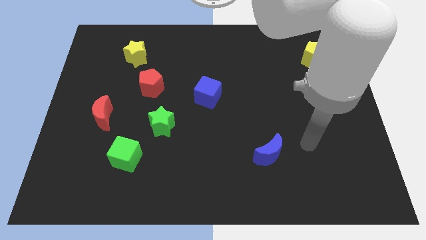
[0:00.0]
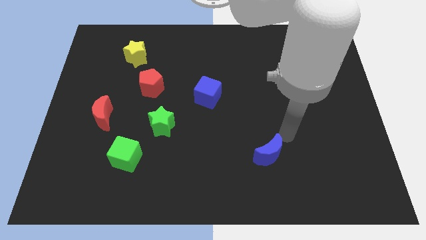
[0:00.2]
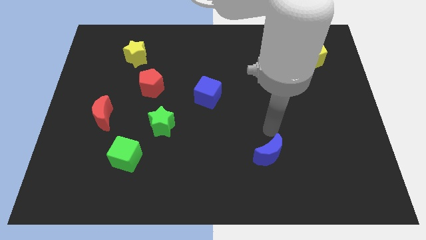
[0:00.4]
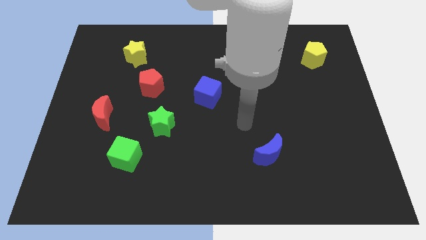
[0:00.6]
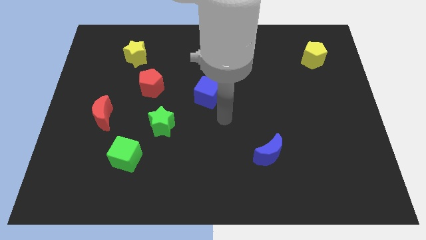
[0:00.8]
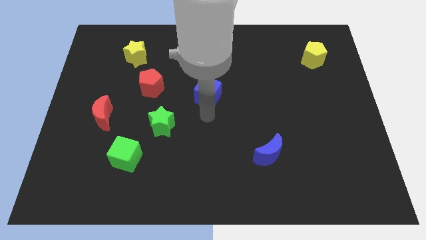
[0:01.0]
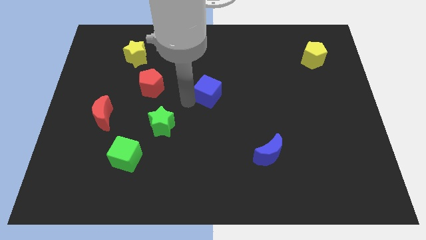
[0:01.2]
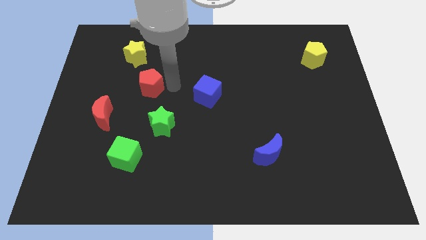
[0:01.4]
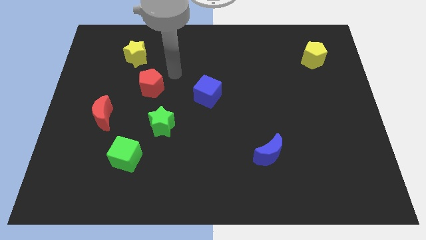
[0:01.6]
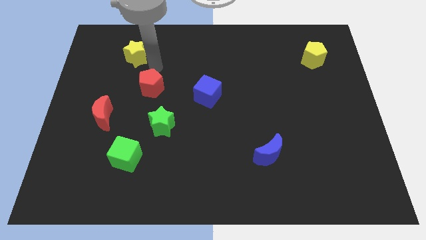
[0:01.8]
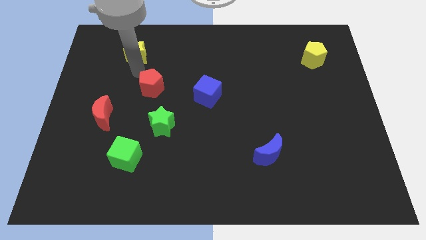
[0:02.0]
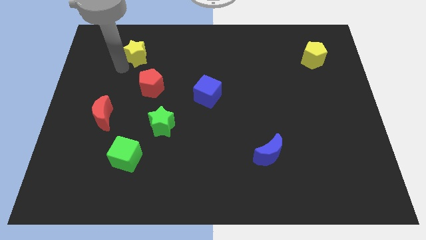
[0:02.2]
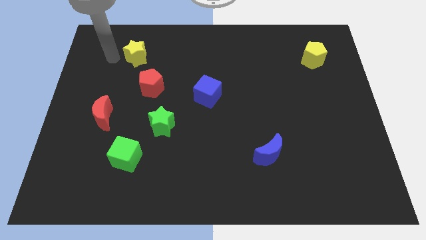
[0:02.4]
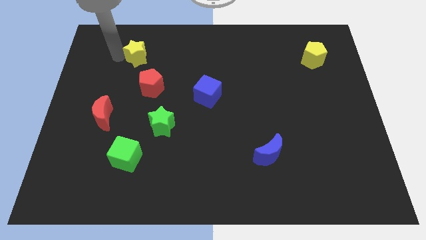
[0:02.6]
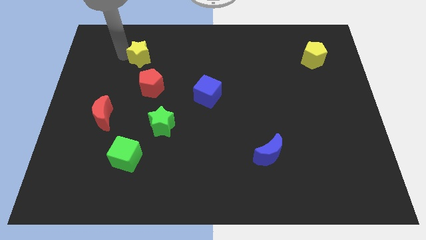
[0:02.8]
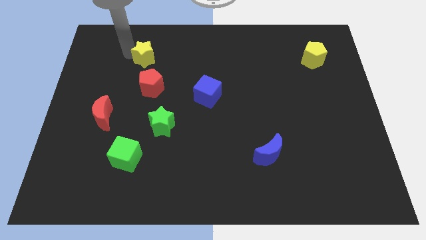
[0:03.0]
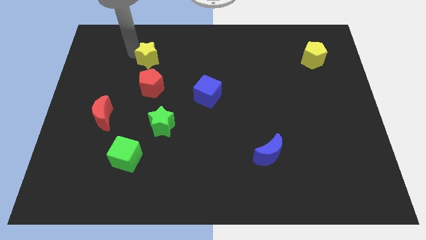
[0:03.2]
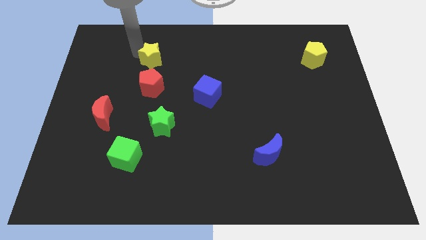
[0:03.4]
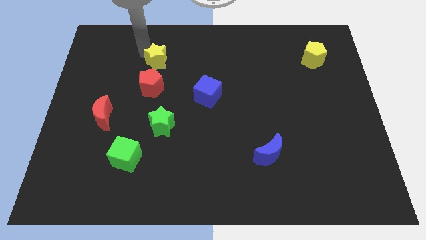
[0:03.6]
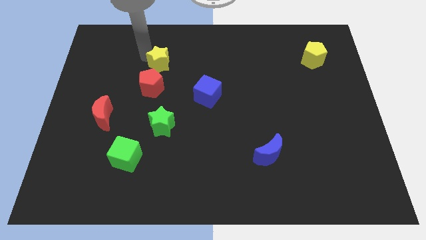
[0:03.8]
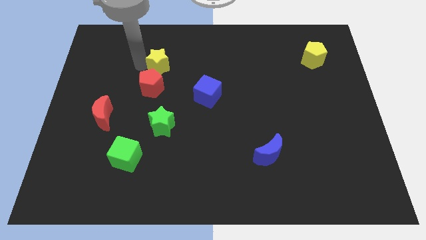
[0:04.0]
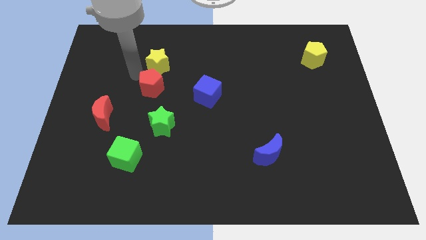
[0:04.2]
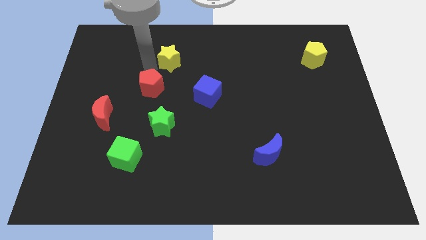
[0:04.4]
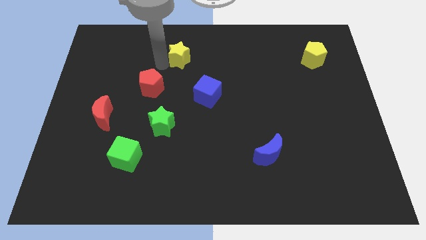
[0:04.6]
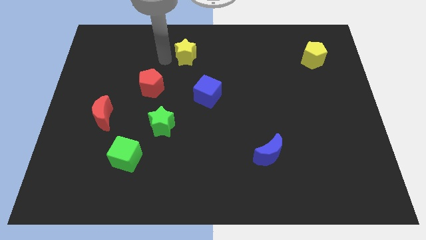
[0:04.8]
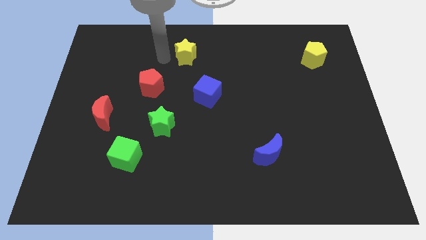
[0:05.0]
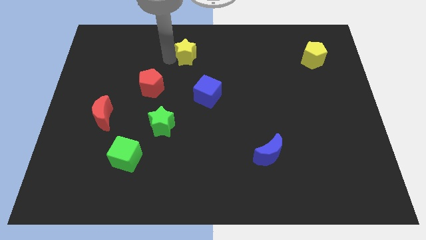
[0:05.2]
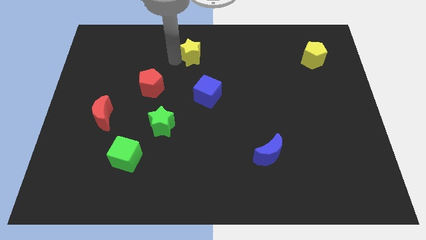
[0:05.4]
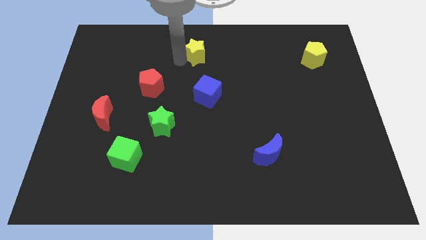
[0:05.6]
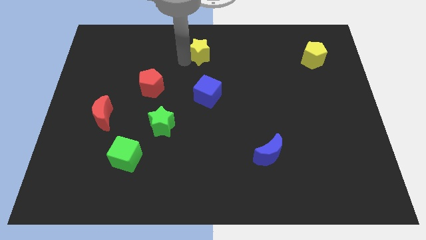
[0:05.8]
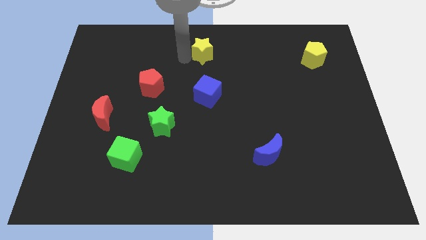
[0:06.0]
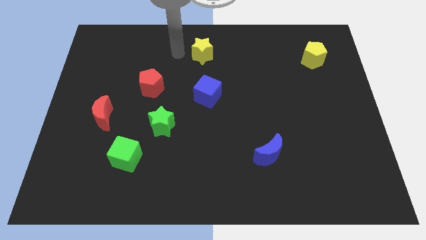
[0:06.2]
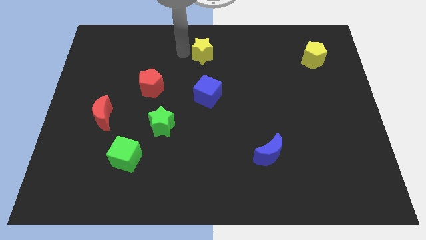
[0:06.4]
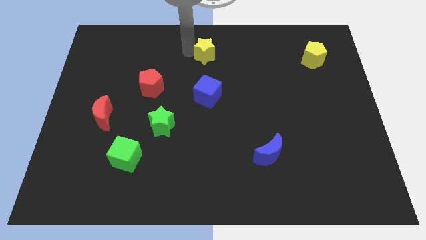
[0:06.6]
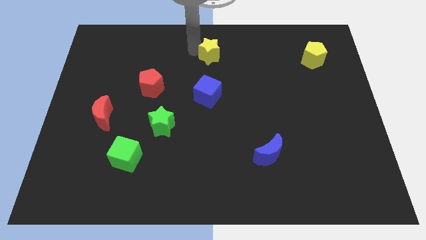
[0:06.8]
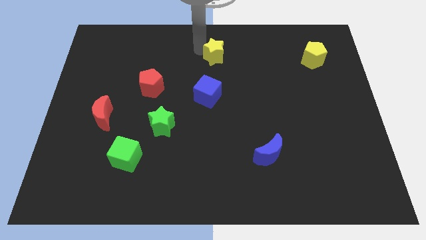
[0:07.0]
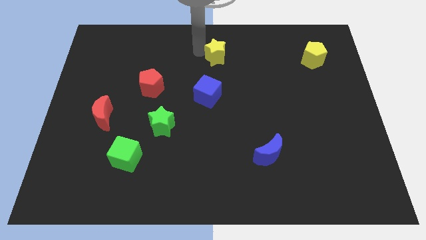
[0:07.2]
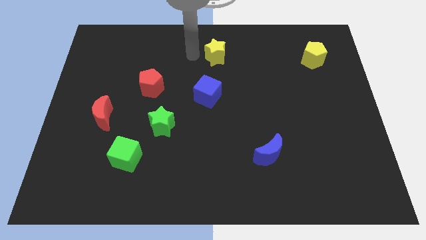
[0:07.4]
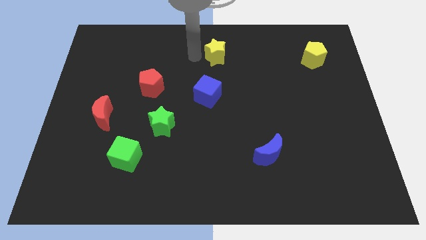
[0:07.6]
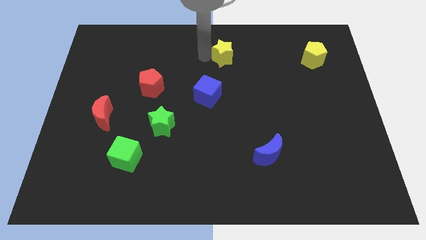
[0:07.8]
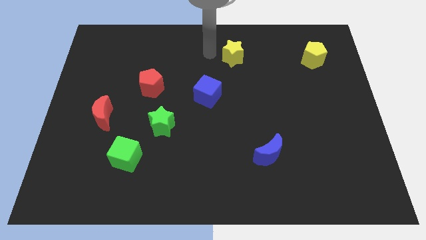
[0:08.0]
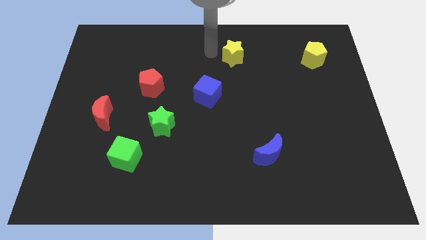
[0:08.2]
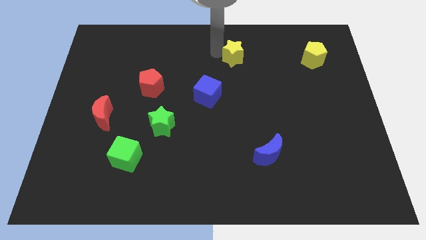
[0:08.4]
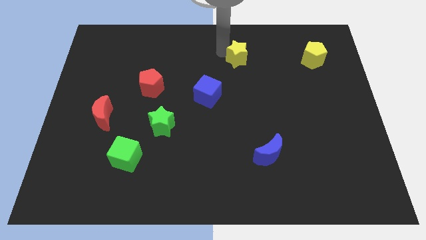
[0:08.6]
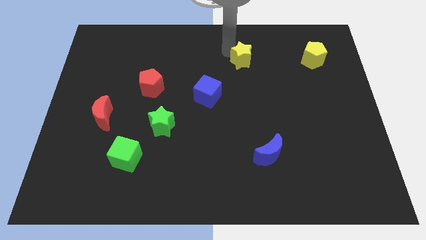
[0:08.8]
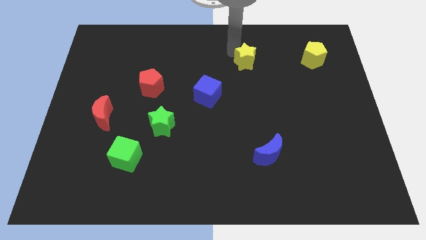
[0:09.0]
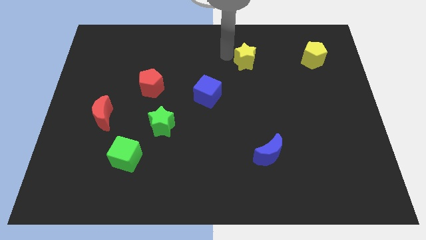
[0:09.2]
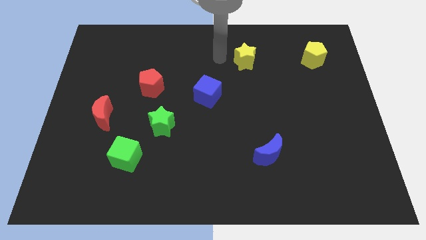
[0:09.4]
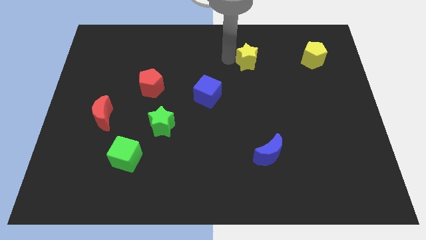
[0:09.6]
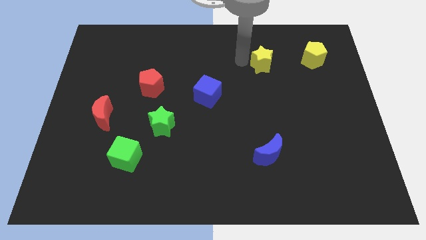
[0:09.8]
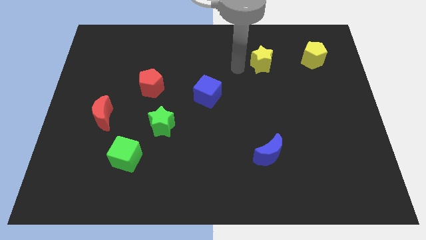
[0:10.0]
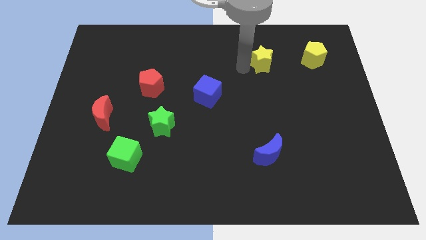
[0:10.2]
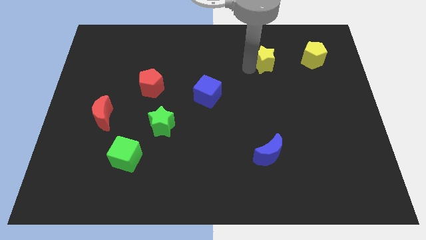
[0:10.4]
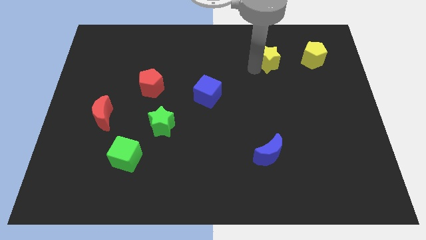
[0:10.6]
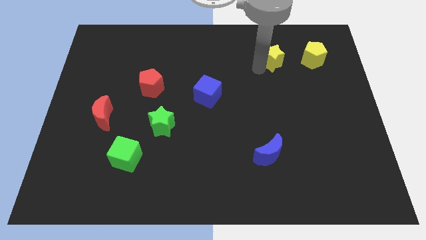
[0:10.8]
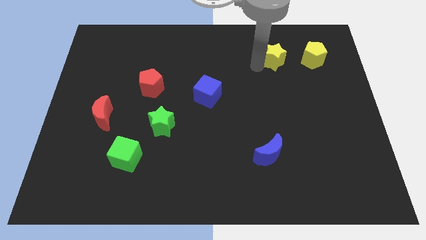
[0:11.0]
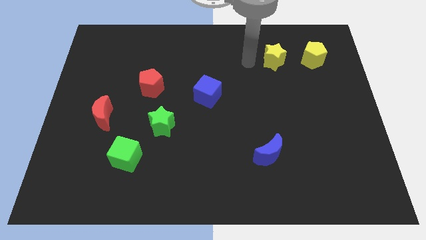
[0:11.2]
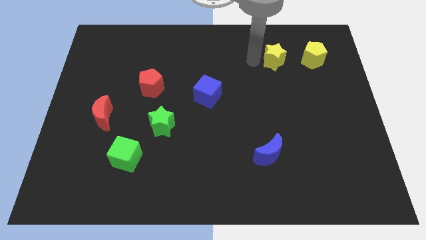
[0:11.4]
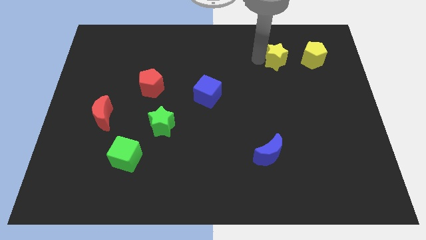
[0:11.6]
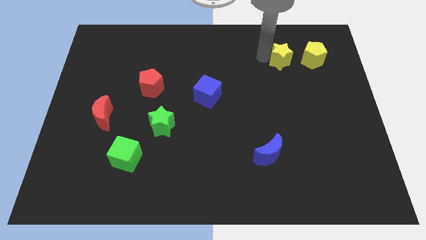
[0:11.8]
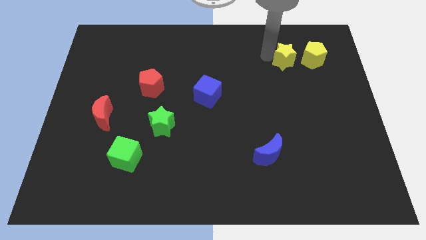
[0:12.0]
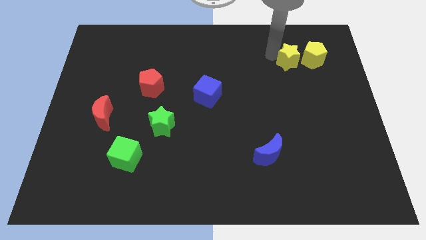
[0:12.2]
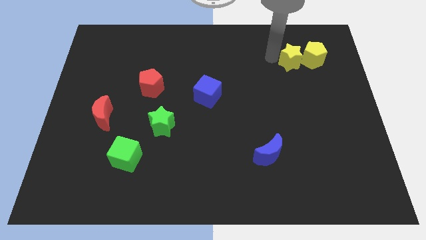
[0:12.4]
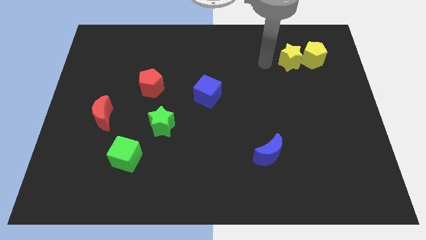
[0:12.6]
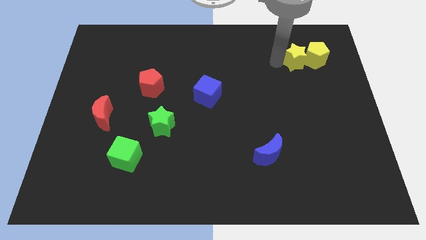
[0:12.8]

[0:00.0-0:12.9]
push the yellow star close to the yellow pentagon

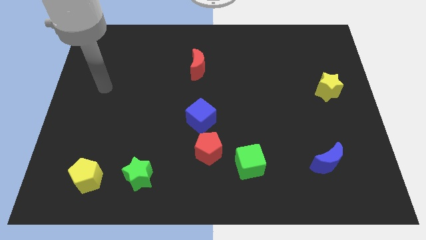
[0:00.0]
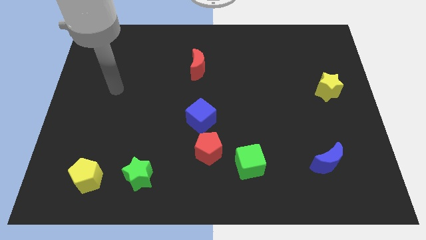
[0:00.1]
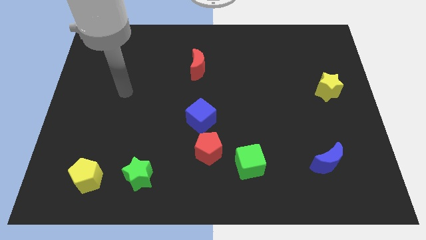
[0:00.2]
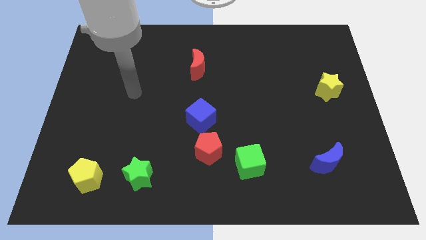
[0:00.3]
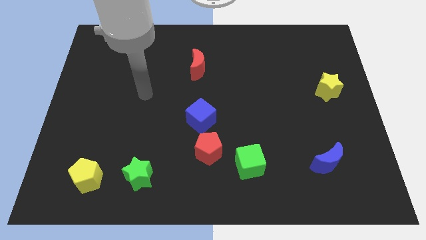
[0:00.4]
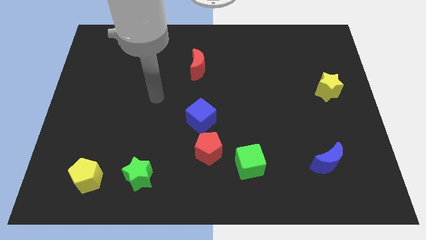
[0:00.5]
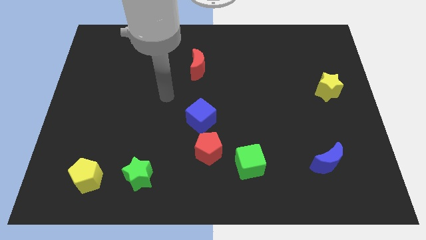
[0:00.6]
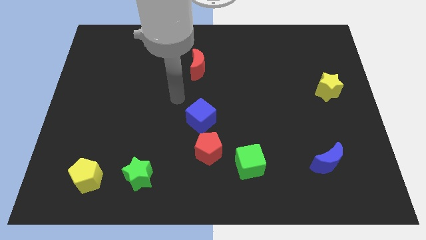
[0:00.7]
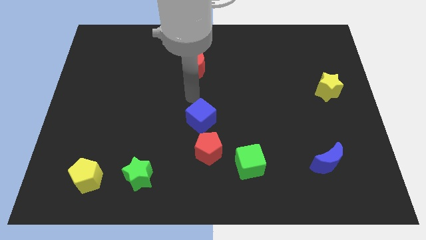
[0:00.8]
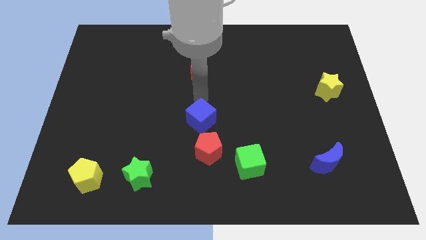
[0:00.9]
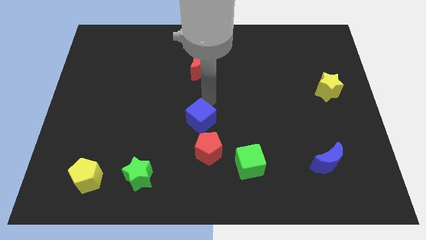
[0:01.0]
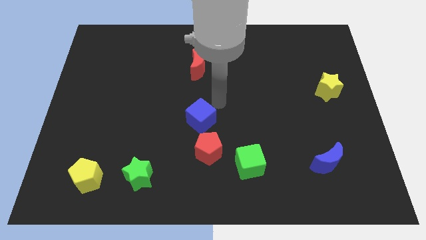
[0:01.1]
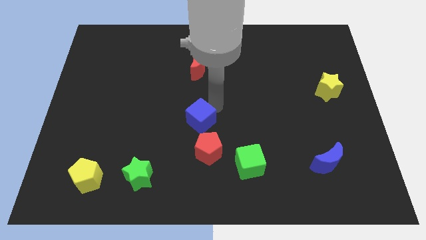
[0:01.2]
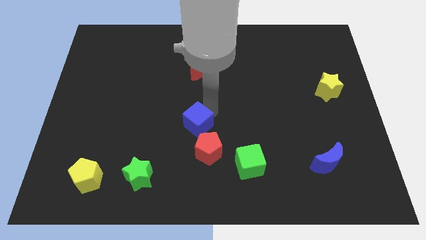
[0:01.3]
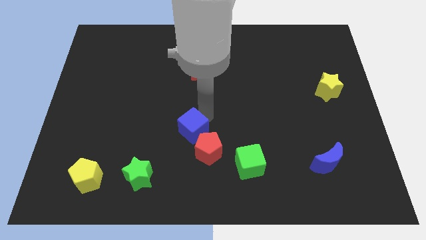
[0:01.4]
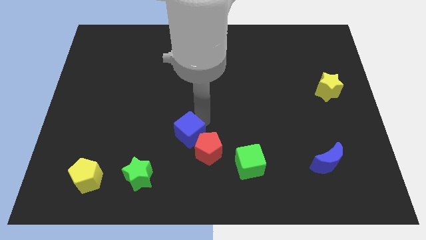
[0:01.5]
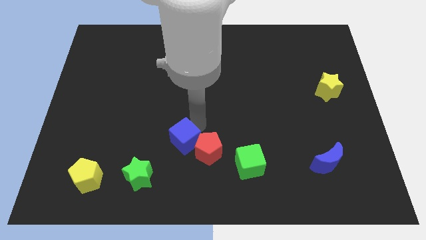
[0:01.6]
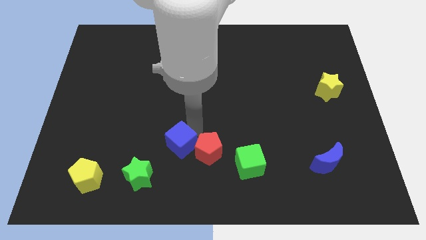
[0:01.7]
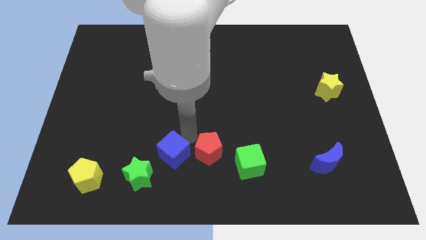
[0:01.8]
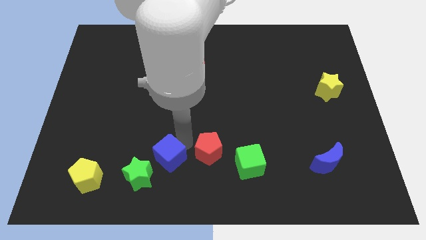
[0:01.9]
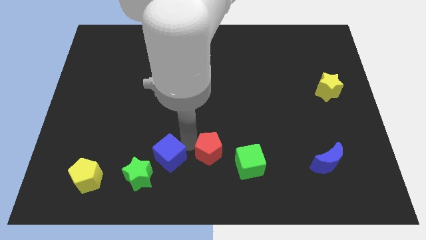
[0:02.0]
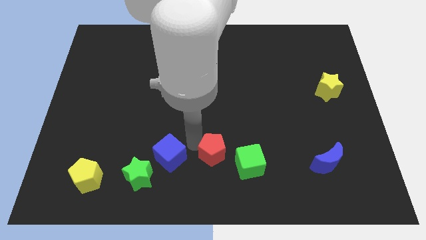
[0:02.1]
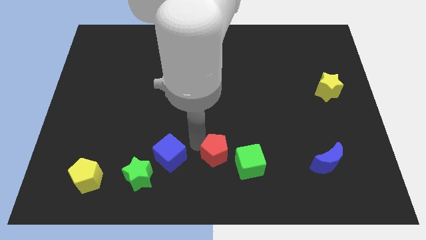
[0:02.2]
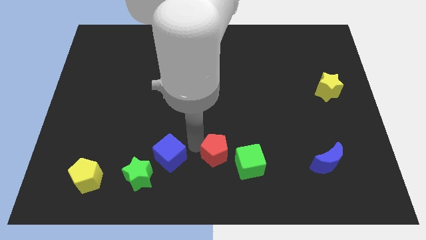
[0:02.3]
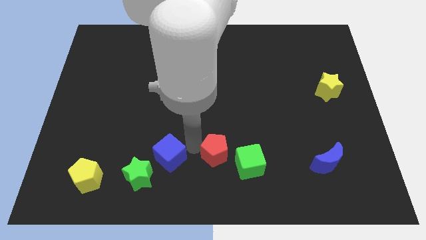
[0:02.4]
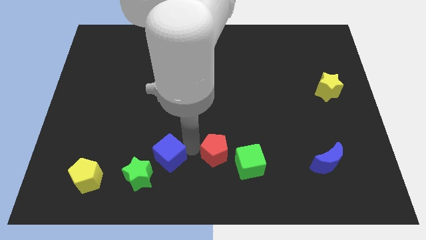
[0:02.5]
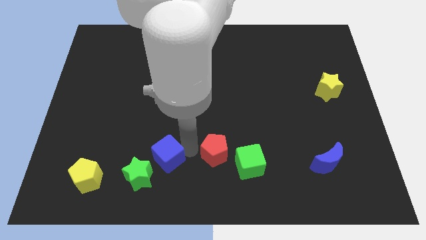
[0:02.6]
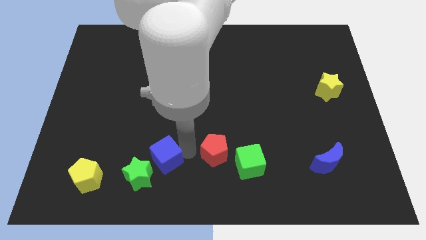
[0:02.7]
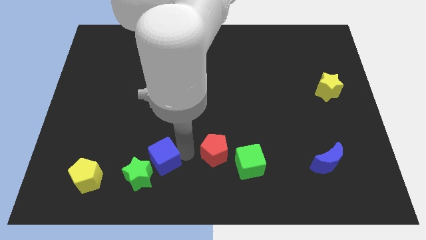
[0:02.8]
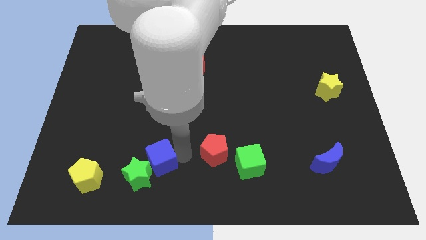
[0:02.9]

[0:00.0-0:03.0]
move the blue cube close to the green star
